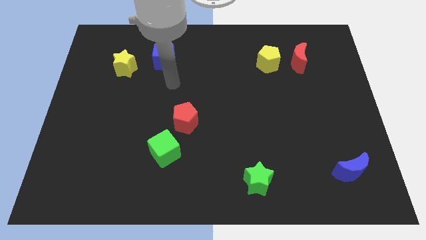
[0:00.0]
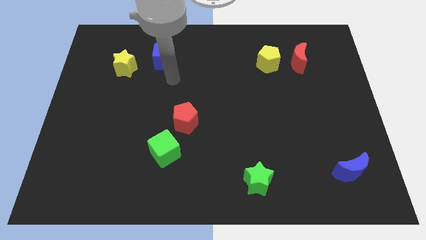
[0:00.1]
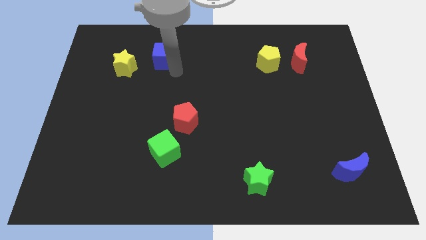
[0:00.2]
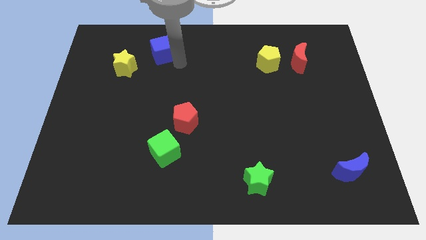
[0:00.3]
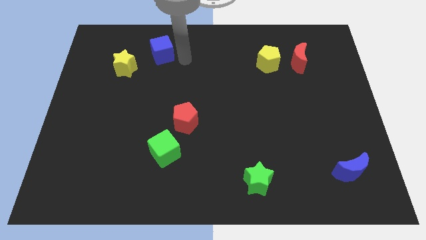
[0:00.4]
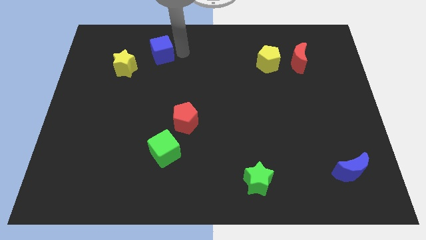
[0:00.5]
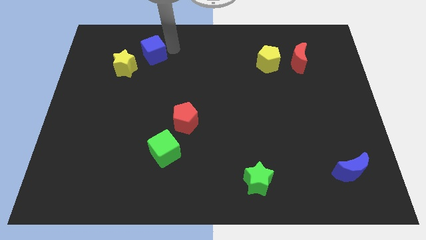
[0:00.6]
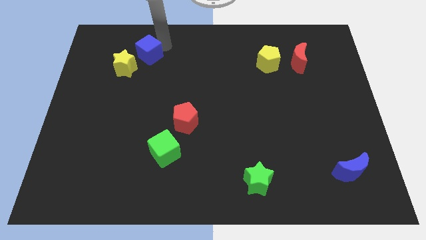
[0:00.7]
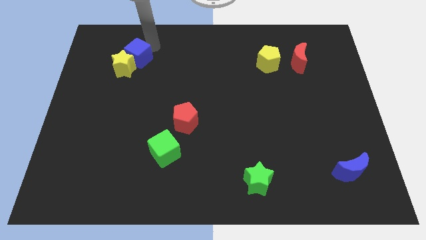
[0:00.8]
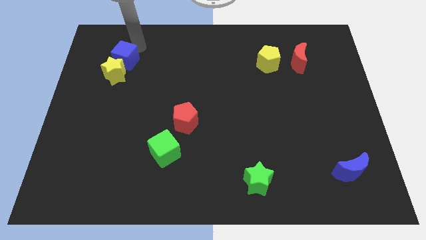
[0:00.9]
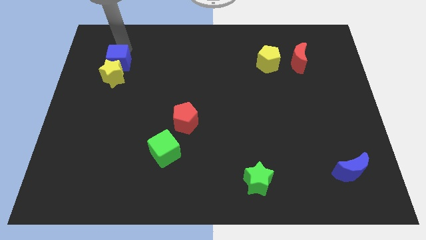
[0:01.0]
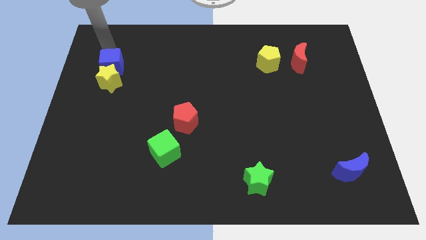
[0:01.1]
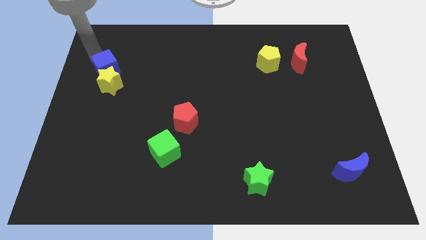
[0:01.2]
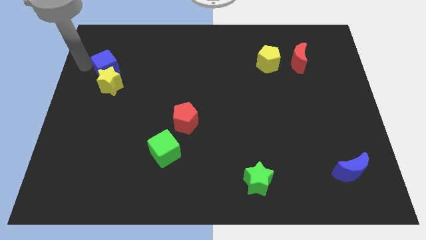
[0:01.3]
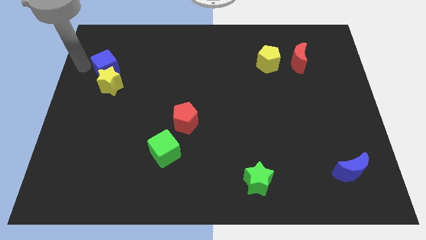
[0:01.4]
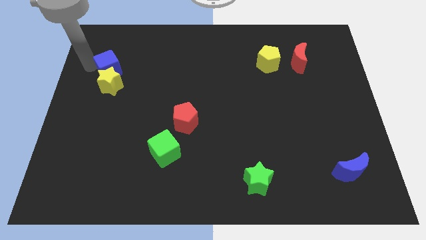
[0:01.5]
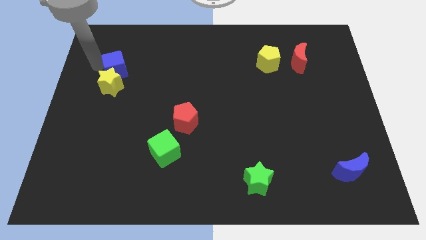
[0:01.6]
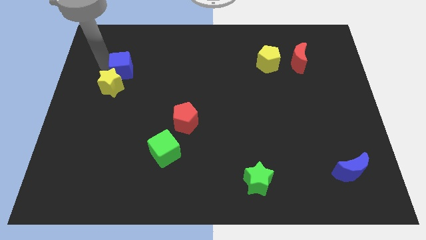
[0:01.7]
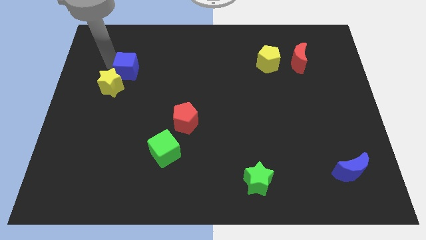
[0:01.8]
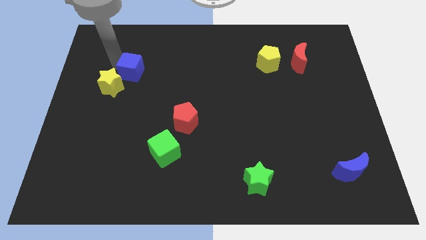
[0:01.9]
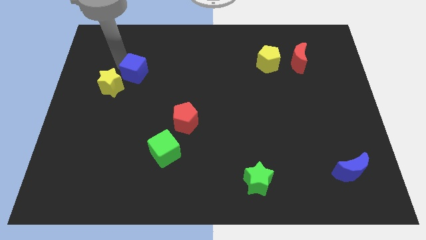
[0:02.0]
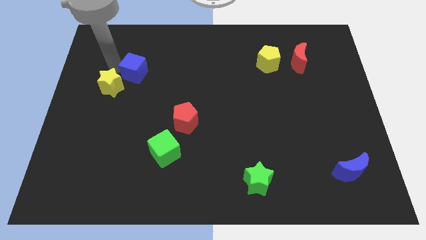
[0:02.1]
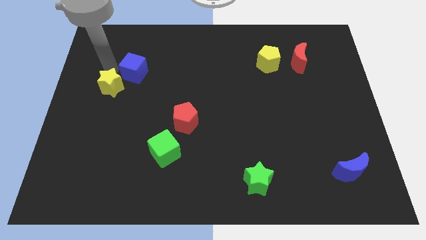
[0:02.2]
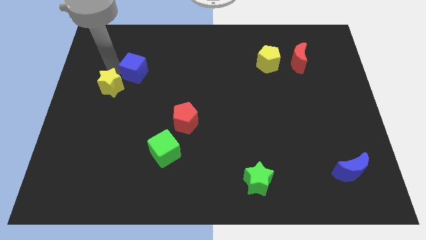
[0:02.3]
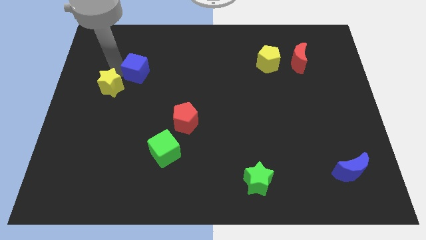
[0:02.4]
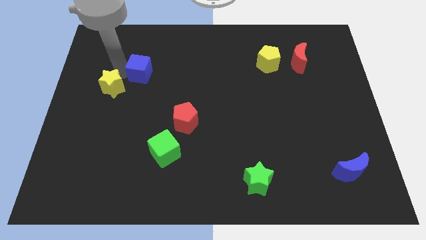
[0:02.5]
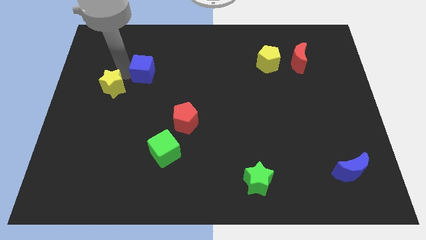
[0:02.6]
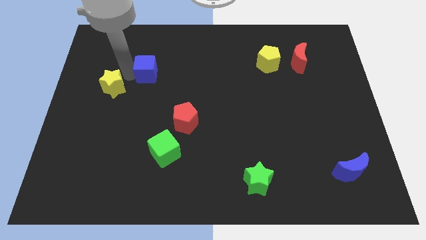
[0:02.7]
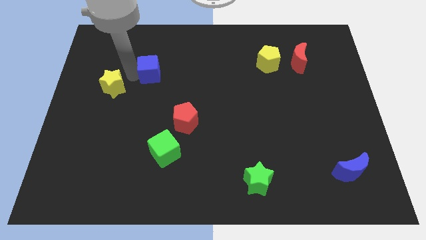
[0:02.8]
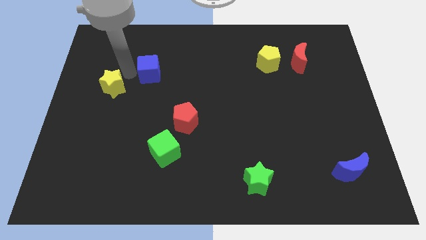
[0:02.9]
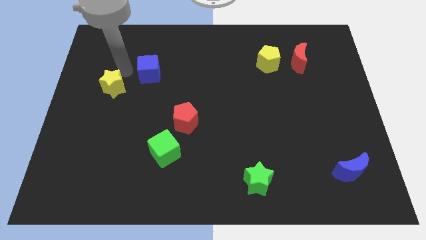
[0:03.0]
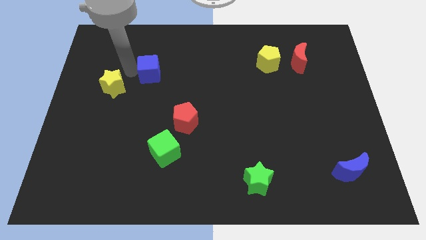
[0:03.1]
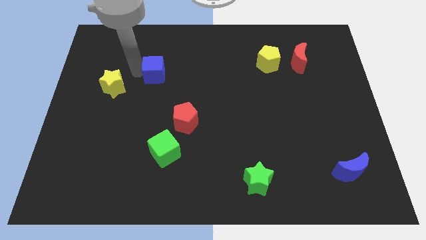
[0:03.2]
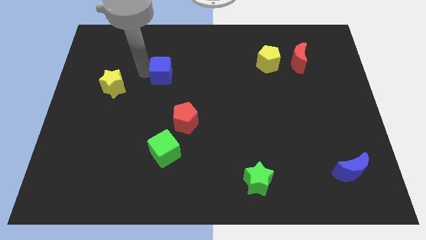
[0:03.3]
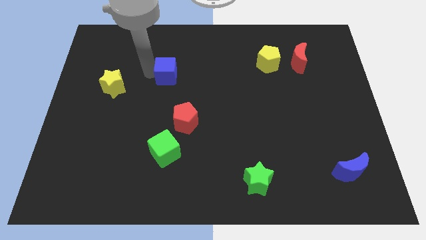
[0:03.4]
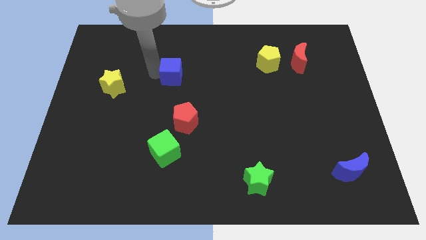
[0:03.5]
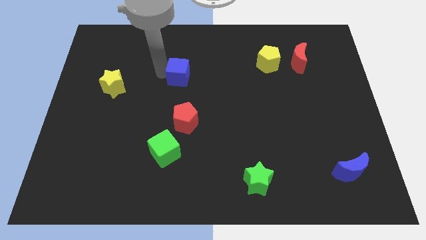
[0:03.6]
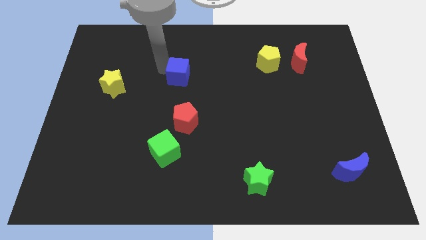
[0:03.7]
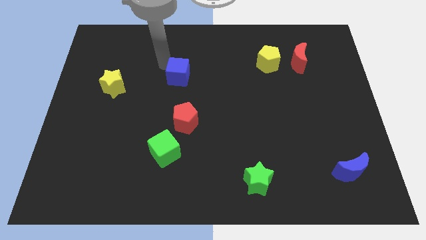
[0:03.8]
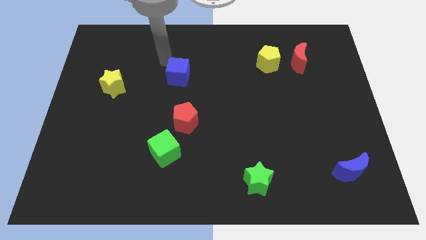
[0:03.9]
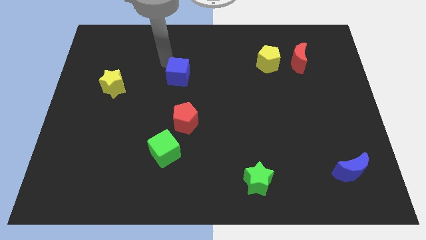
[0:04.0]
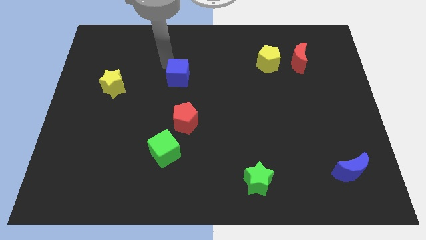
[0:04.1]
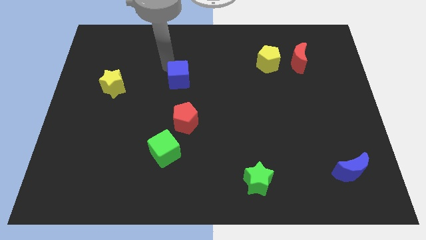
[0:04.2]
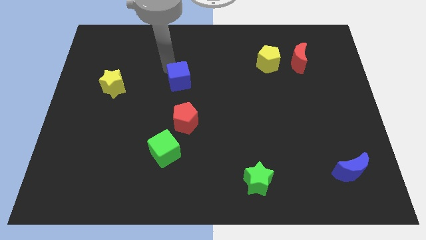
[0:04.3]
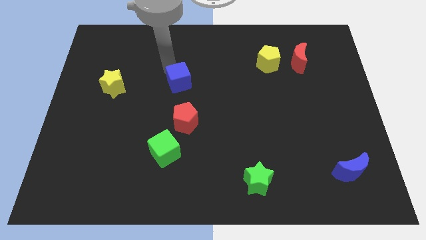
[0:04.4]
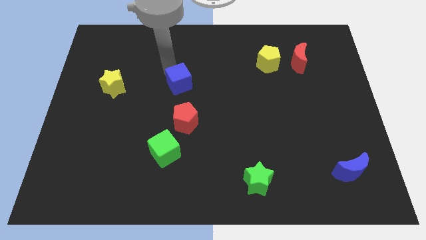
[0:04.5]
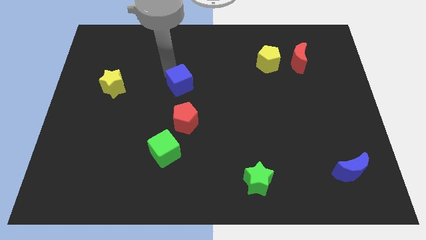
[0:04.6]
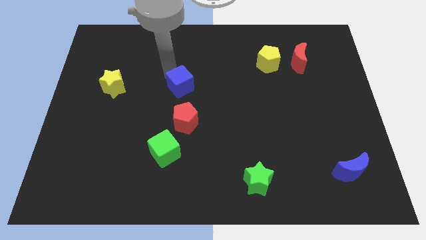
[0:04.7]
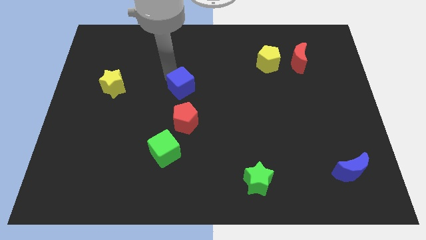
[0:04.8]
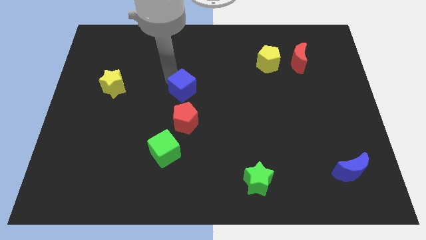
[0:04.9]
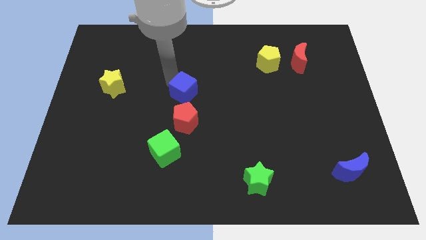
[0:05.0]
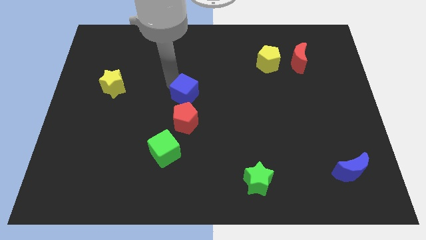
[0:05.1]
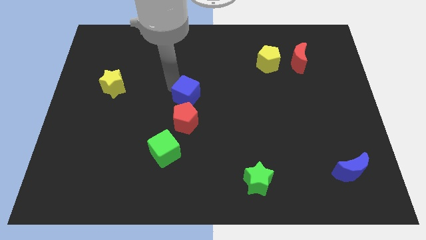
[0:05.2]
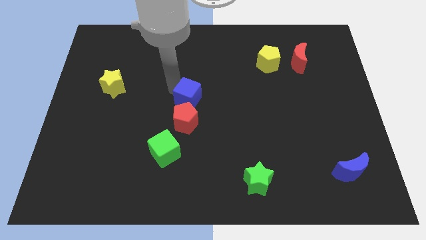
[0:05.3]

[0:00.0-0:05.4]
slide the blue cube to the top right side of the red pentagon

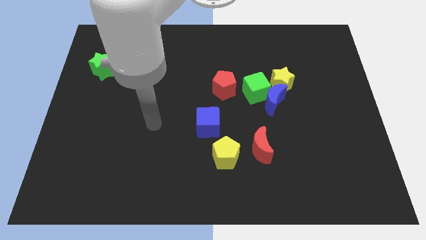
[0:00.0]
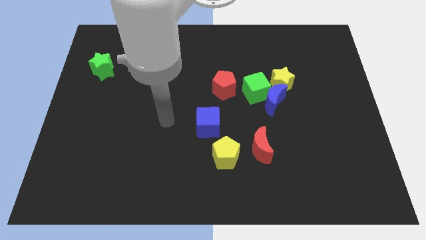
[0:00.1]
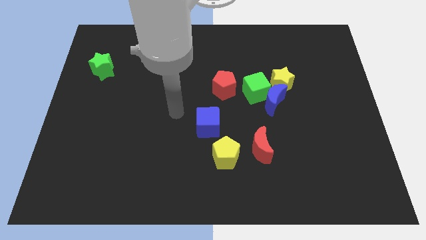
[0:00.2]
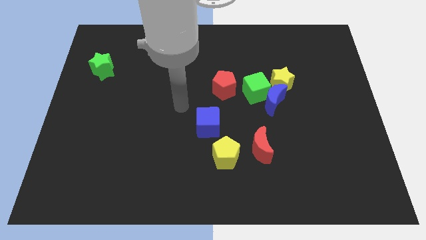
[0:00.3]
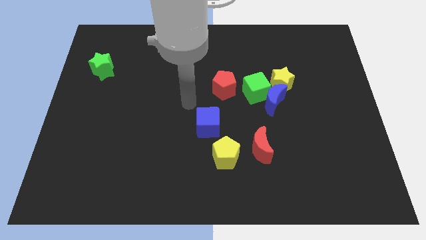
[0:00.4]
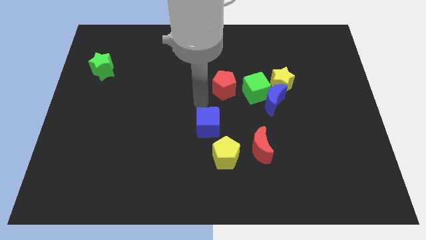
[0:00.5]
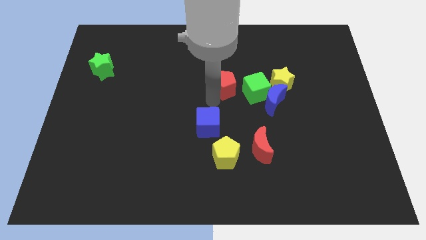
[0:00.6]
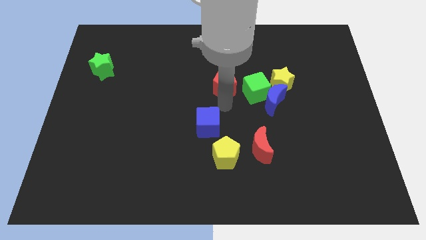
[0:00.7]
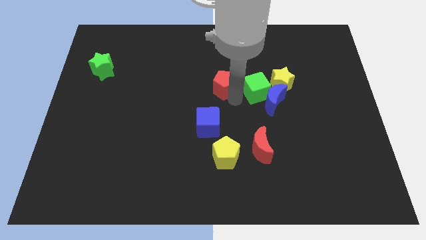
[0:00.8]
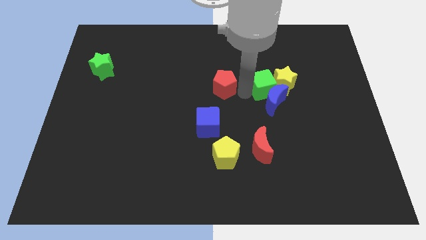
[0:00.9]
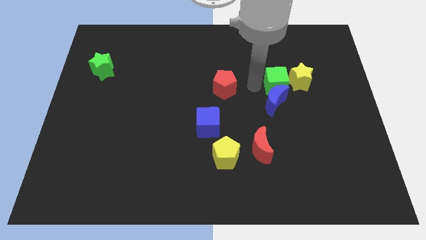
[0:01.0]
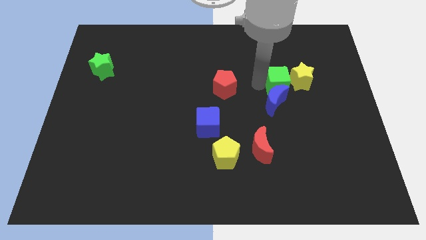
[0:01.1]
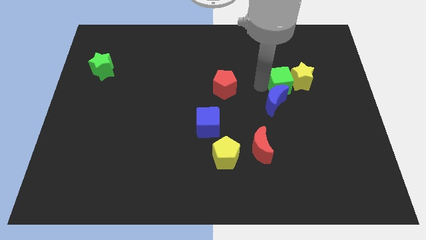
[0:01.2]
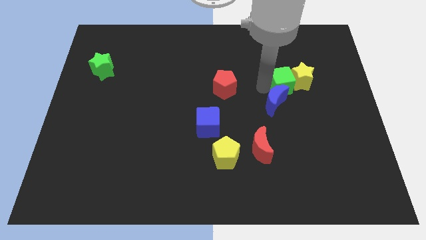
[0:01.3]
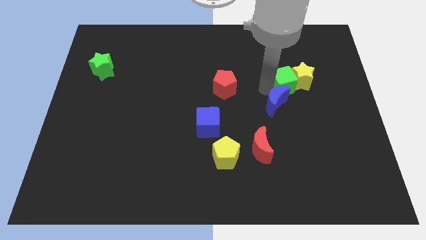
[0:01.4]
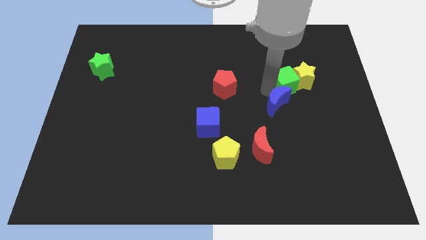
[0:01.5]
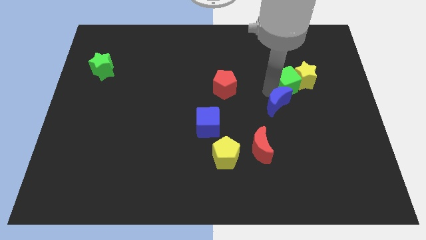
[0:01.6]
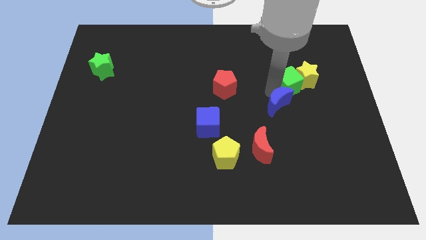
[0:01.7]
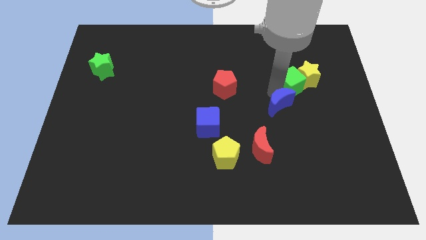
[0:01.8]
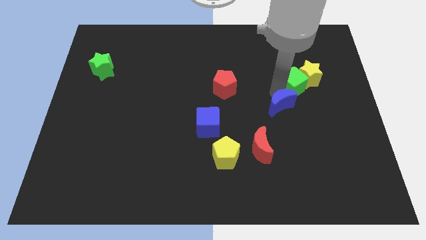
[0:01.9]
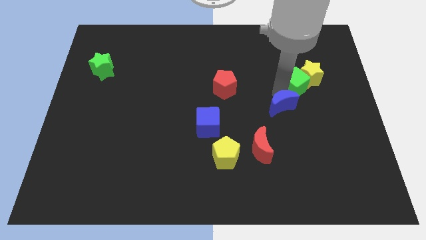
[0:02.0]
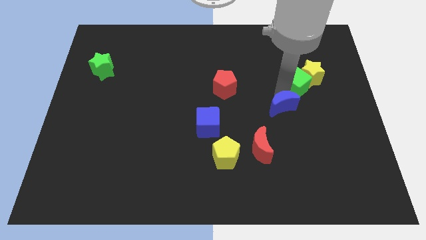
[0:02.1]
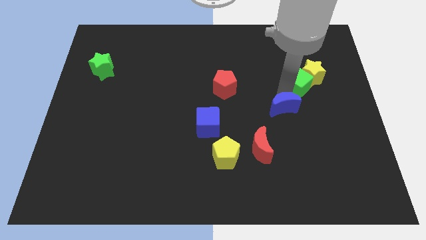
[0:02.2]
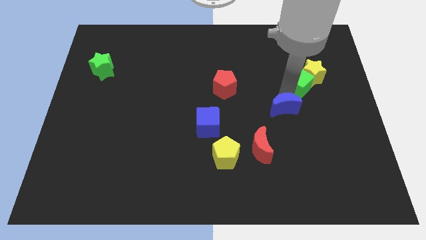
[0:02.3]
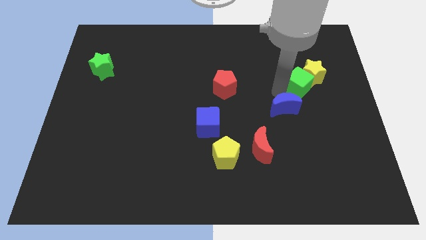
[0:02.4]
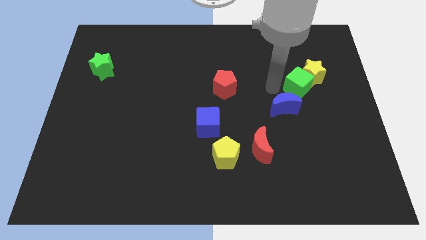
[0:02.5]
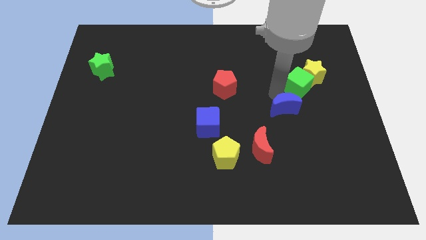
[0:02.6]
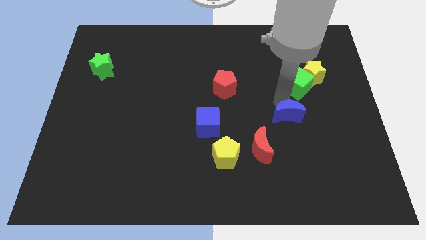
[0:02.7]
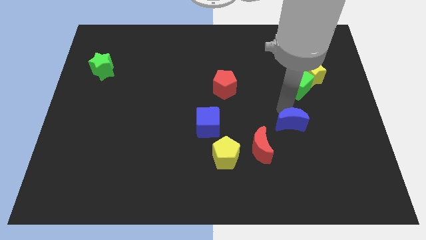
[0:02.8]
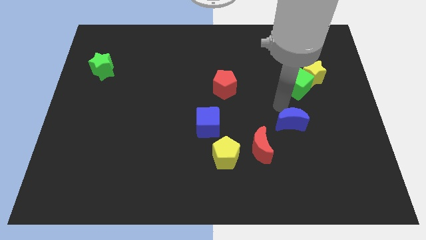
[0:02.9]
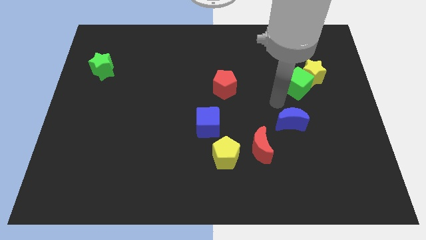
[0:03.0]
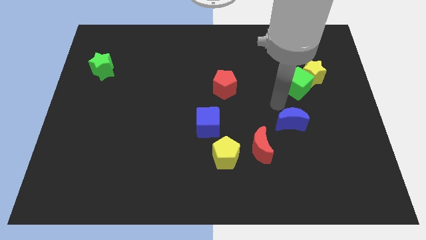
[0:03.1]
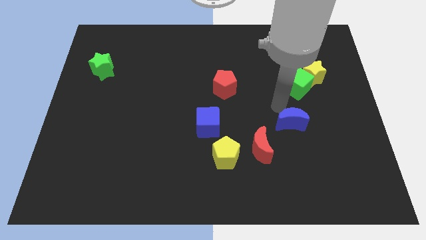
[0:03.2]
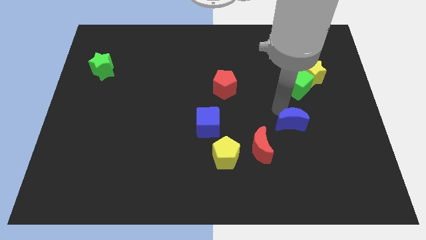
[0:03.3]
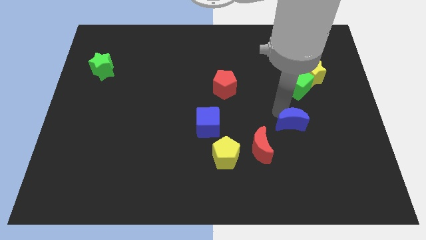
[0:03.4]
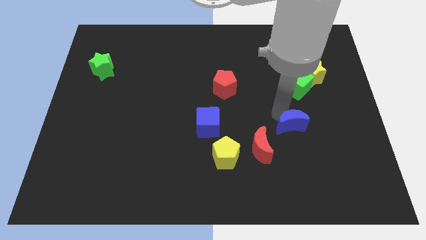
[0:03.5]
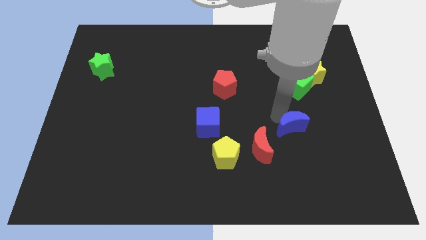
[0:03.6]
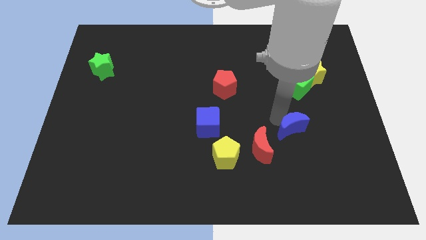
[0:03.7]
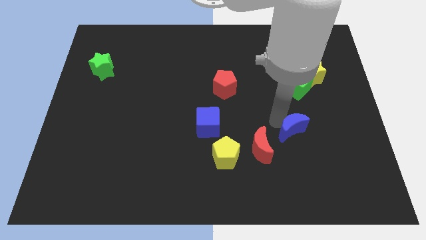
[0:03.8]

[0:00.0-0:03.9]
put the blue moon just right of the red moon
